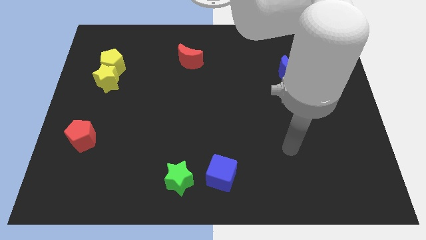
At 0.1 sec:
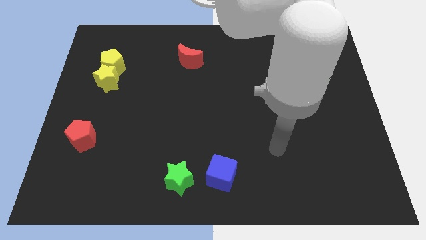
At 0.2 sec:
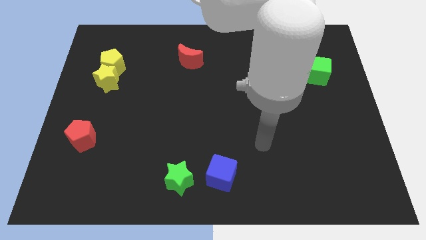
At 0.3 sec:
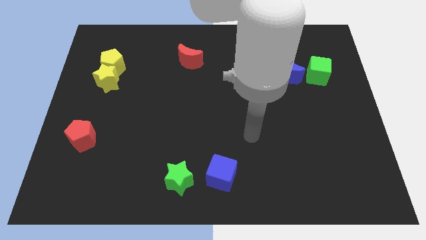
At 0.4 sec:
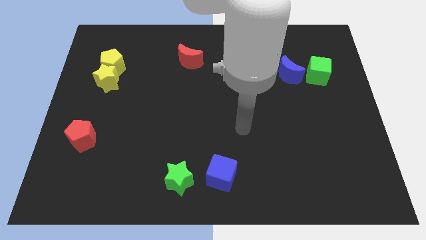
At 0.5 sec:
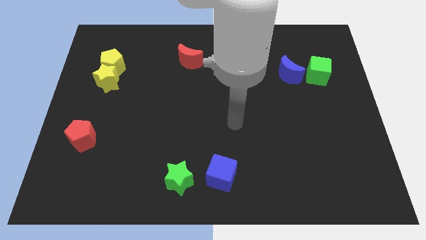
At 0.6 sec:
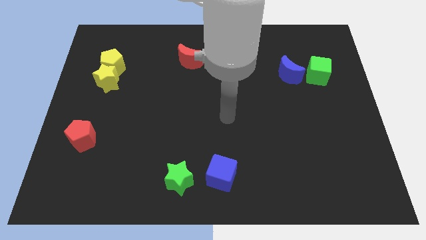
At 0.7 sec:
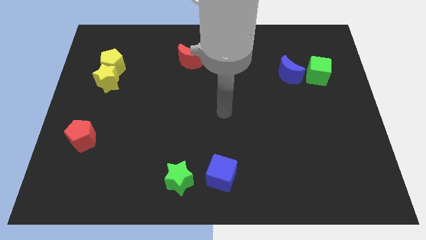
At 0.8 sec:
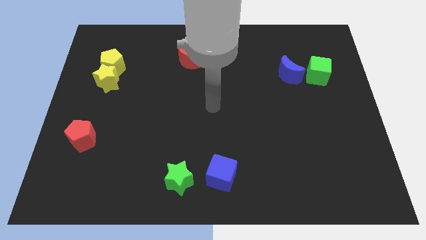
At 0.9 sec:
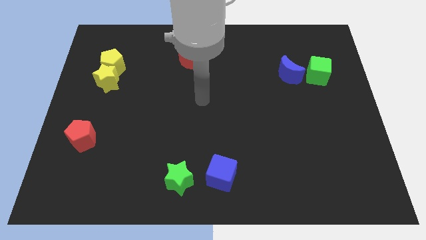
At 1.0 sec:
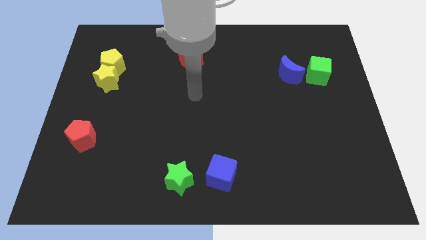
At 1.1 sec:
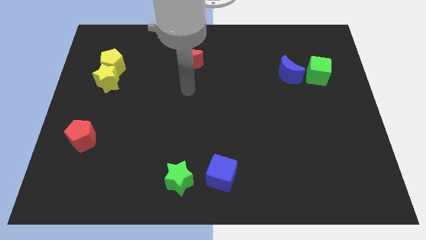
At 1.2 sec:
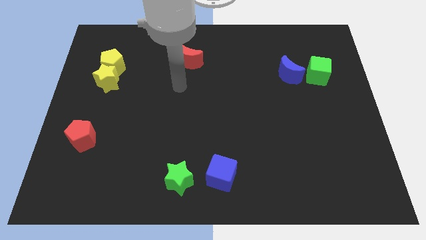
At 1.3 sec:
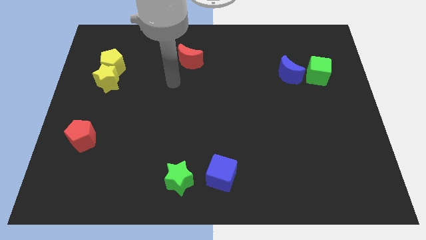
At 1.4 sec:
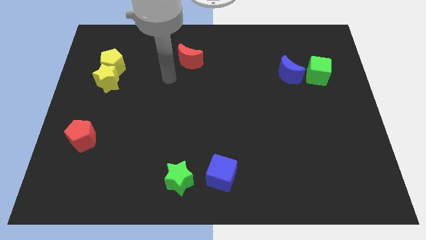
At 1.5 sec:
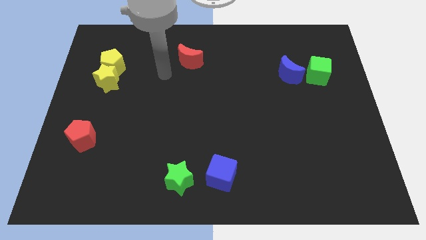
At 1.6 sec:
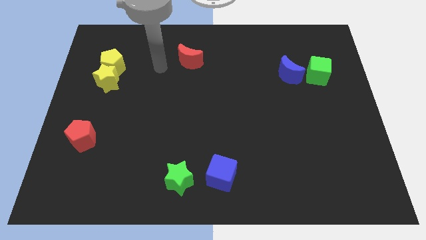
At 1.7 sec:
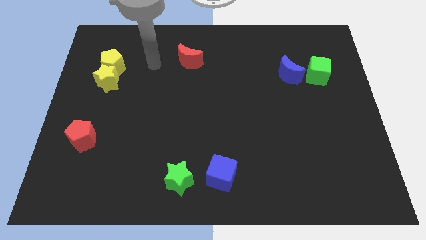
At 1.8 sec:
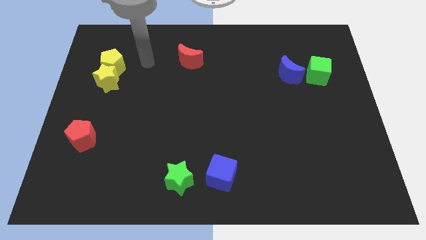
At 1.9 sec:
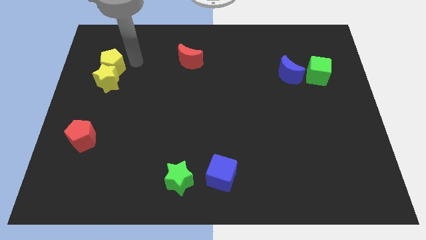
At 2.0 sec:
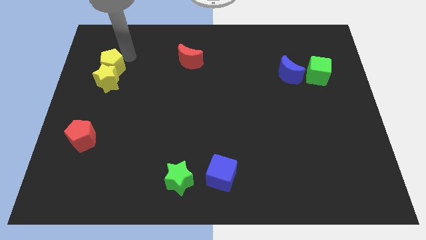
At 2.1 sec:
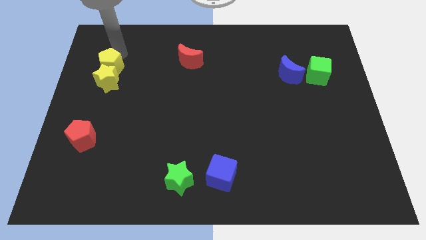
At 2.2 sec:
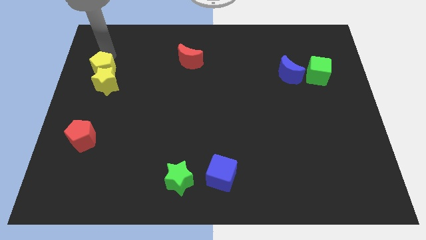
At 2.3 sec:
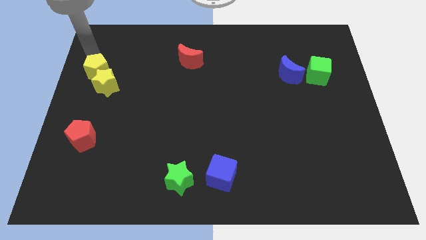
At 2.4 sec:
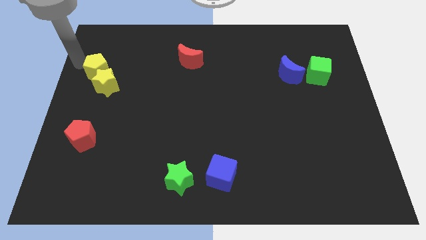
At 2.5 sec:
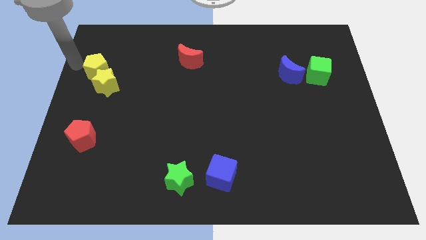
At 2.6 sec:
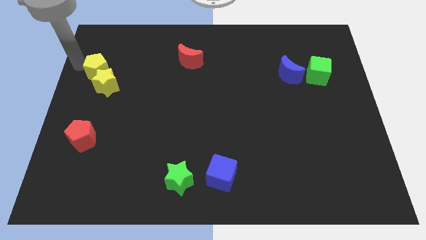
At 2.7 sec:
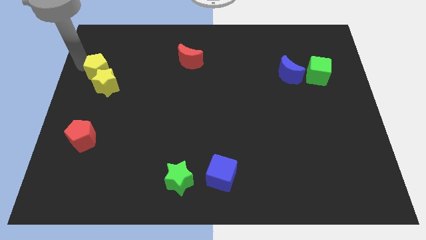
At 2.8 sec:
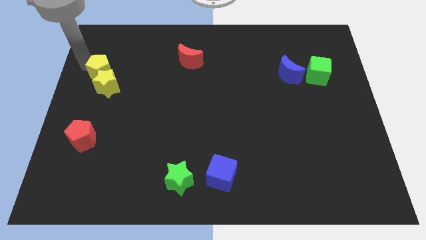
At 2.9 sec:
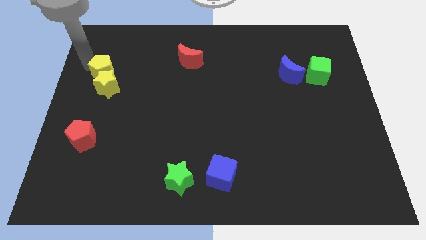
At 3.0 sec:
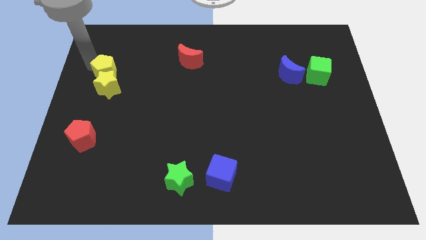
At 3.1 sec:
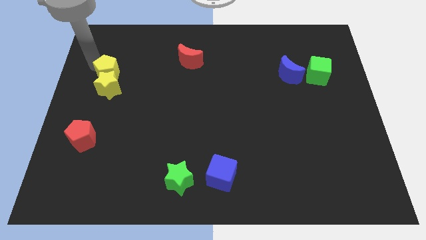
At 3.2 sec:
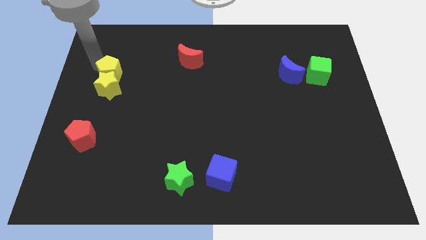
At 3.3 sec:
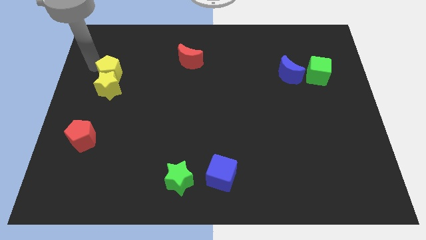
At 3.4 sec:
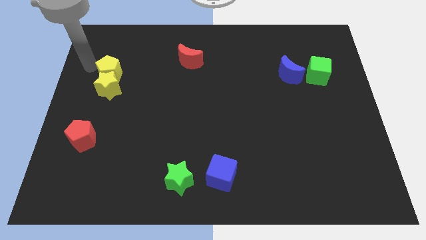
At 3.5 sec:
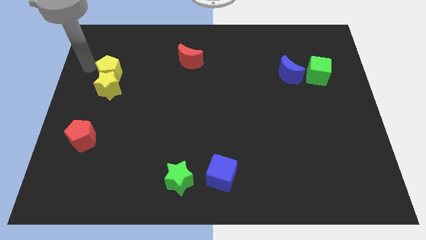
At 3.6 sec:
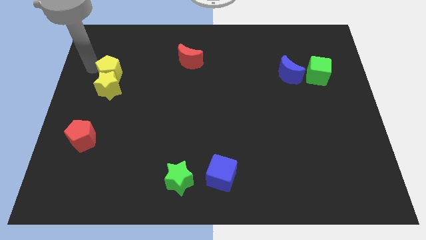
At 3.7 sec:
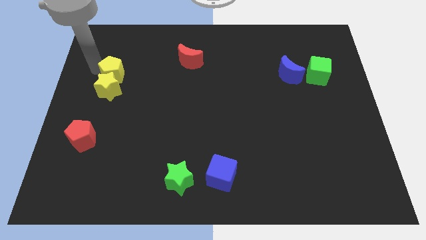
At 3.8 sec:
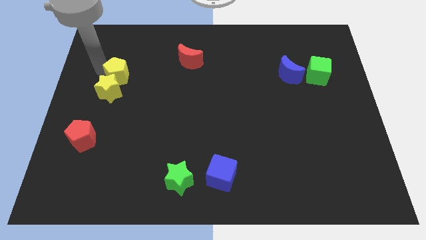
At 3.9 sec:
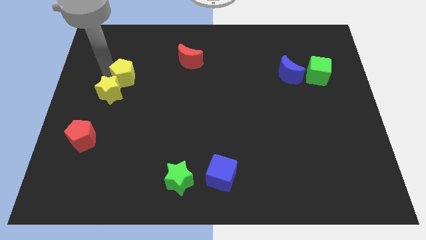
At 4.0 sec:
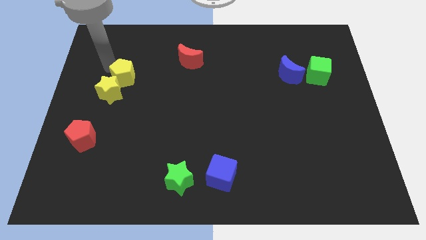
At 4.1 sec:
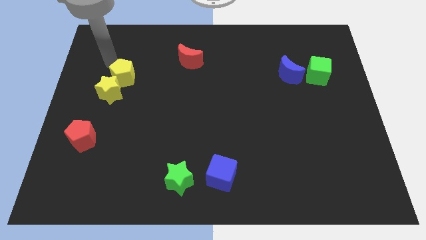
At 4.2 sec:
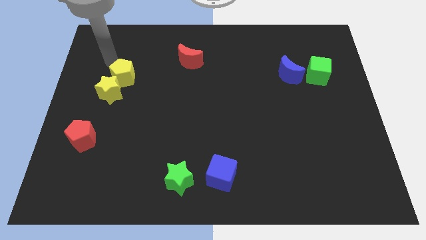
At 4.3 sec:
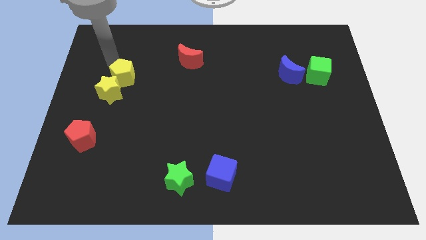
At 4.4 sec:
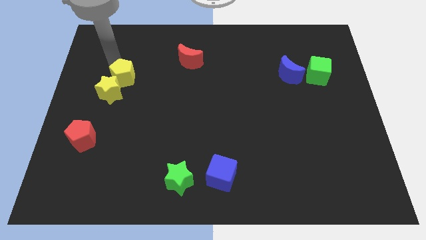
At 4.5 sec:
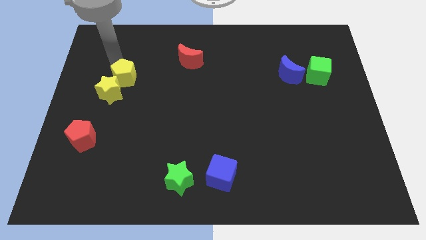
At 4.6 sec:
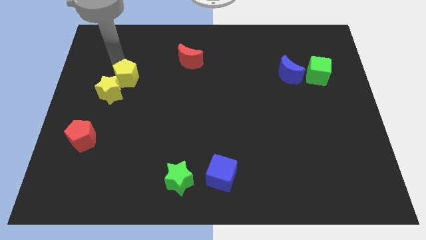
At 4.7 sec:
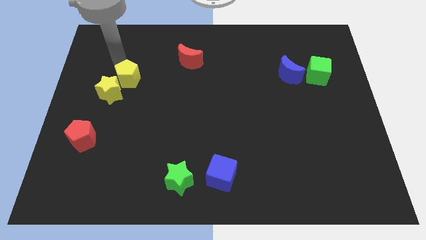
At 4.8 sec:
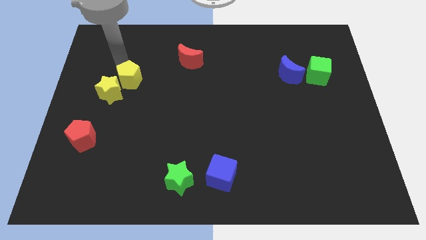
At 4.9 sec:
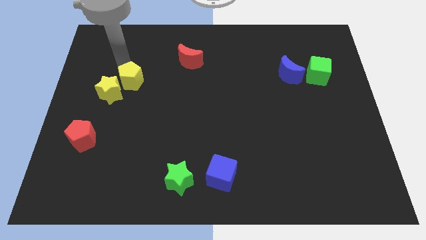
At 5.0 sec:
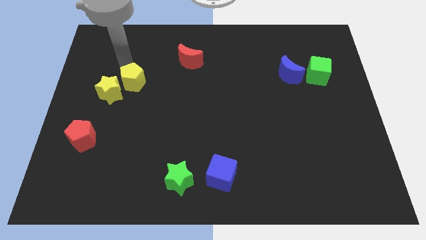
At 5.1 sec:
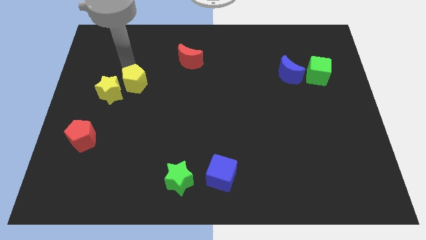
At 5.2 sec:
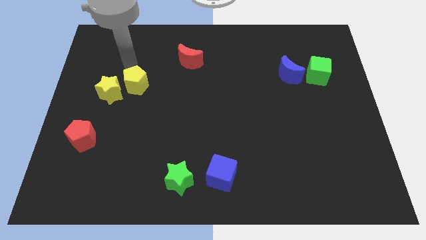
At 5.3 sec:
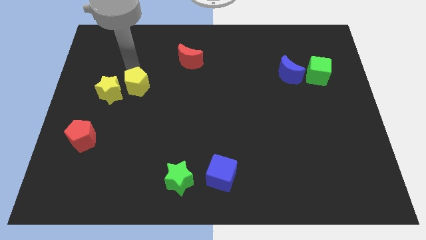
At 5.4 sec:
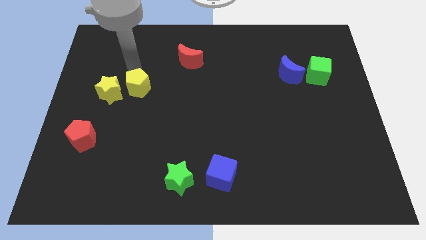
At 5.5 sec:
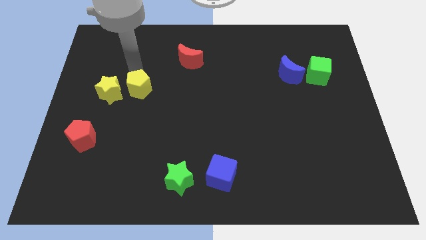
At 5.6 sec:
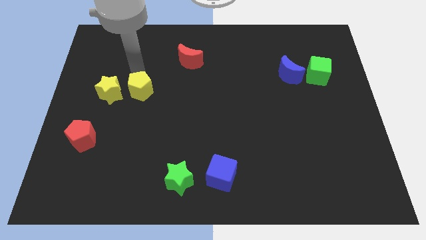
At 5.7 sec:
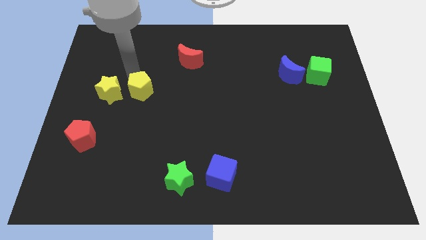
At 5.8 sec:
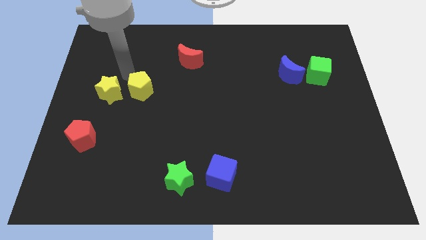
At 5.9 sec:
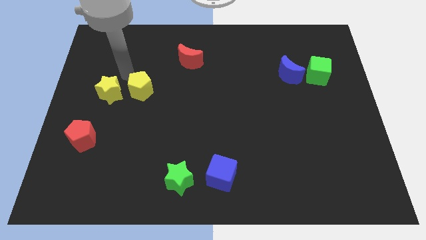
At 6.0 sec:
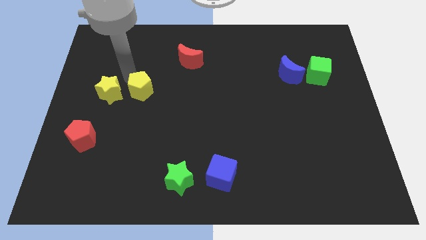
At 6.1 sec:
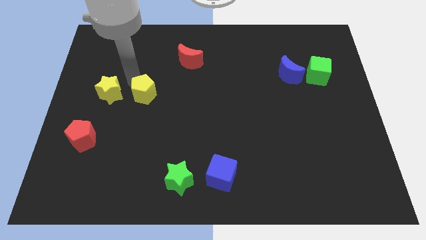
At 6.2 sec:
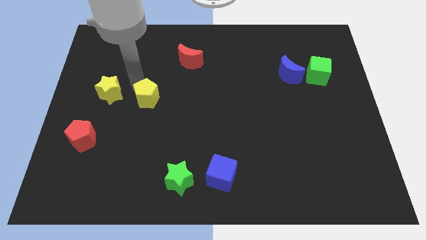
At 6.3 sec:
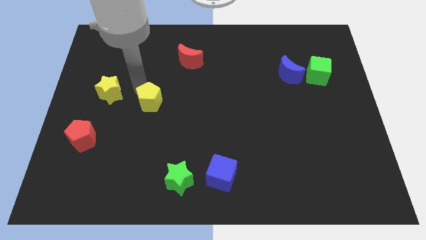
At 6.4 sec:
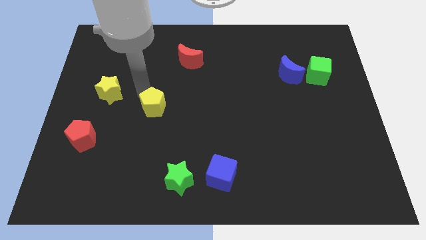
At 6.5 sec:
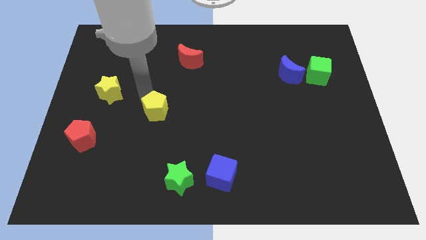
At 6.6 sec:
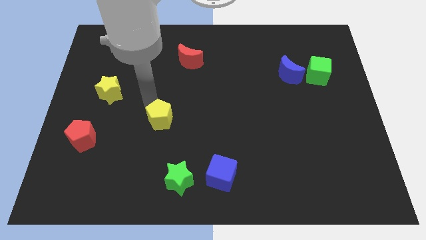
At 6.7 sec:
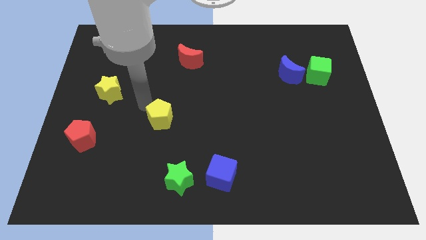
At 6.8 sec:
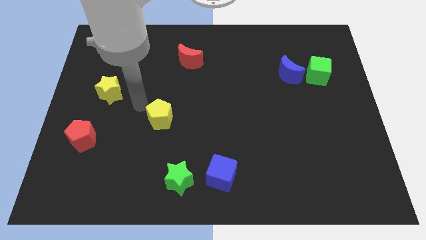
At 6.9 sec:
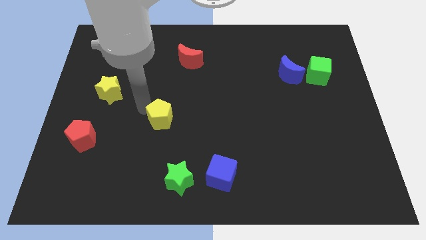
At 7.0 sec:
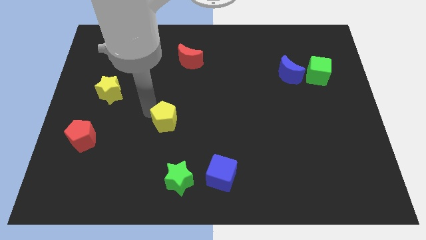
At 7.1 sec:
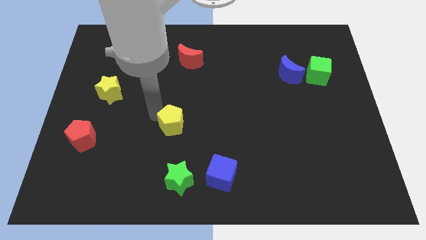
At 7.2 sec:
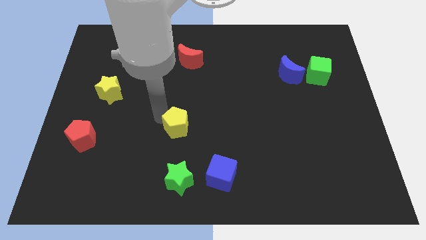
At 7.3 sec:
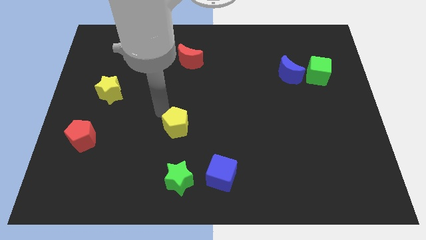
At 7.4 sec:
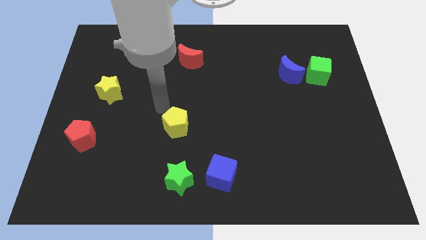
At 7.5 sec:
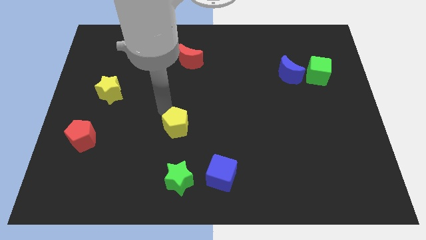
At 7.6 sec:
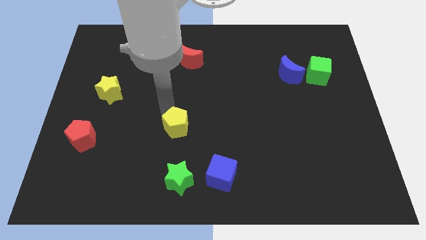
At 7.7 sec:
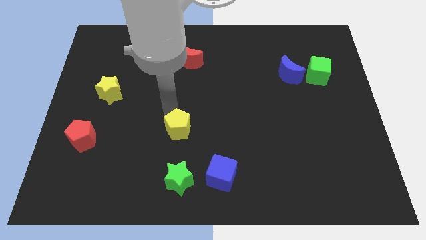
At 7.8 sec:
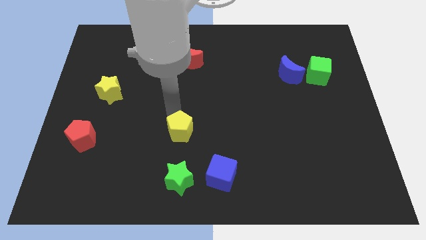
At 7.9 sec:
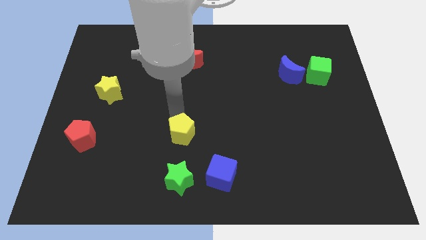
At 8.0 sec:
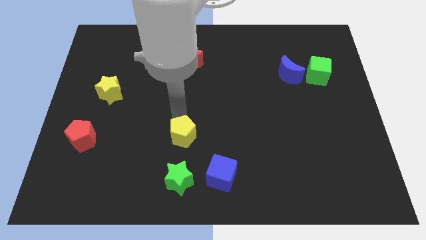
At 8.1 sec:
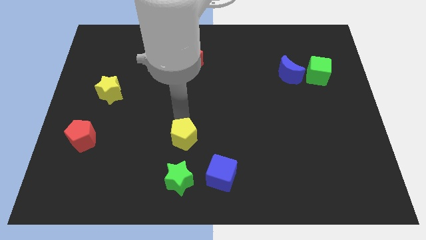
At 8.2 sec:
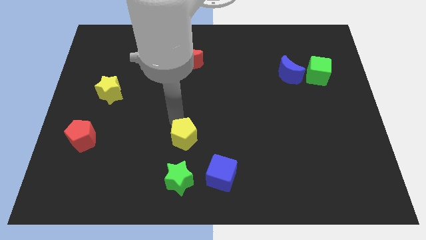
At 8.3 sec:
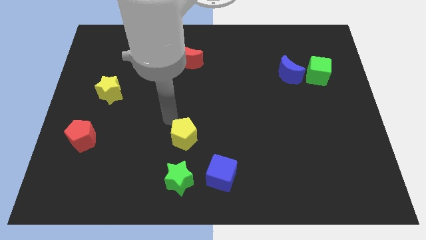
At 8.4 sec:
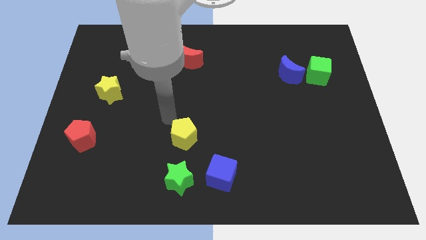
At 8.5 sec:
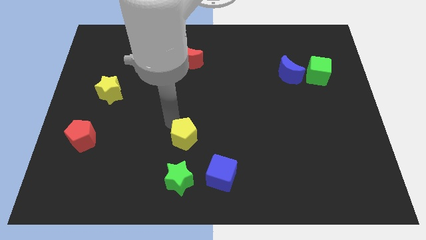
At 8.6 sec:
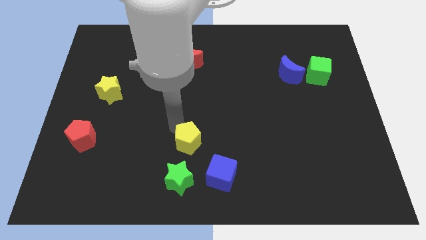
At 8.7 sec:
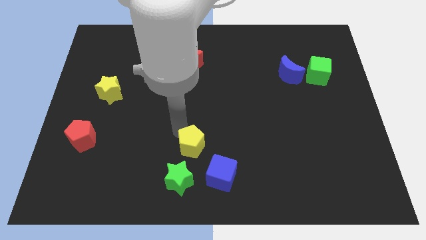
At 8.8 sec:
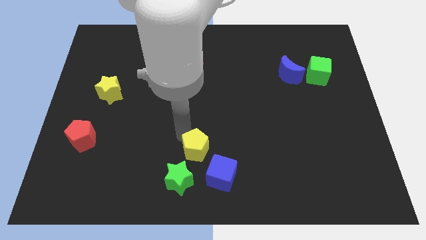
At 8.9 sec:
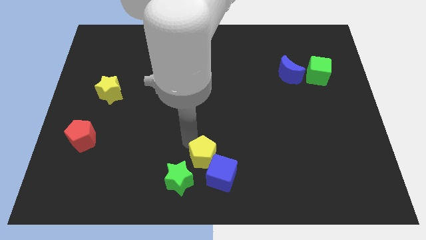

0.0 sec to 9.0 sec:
move the yellow pentagon close to the blue cube
